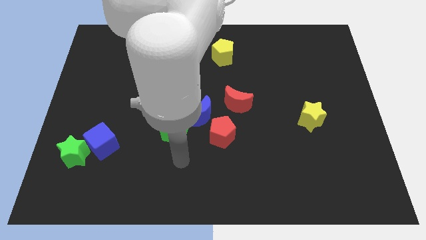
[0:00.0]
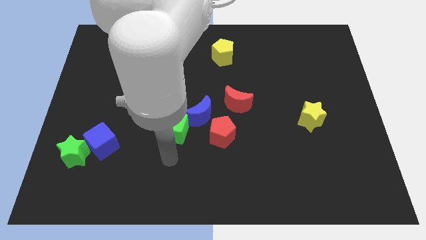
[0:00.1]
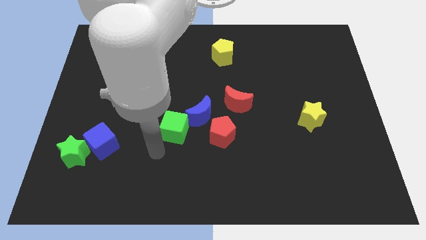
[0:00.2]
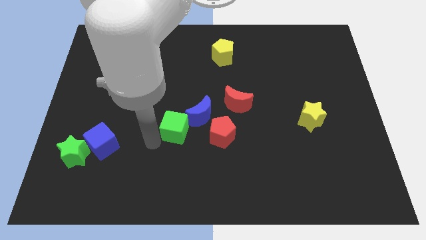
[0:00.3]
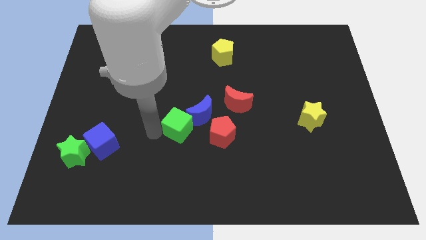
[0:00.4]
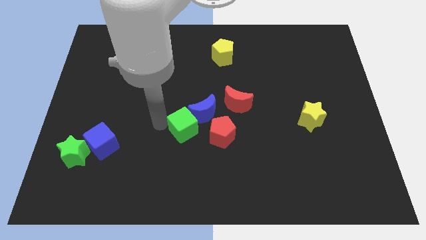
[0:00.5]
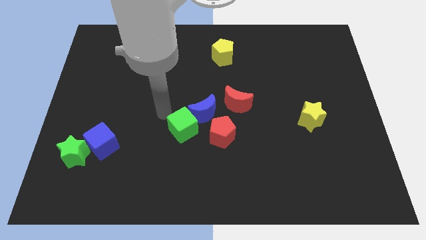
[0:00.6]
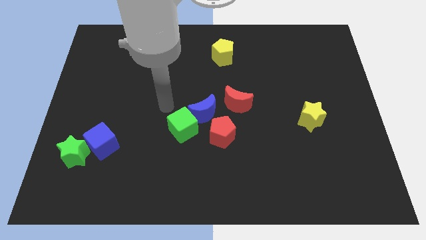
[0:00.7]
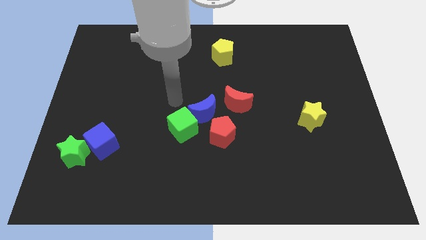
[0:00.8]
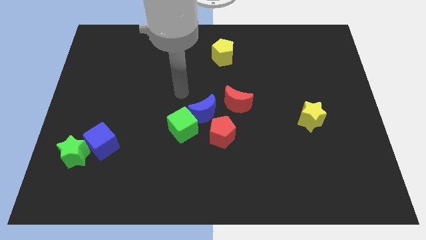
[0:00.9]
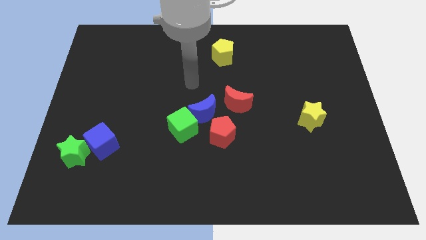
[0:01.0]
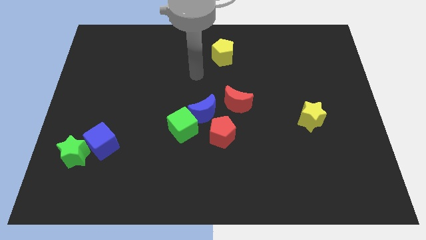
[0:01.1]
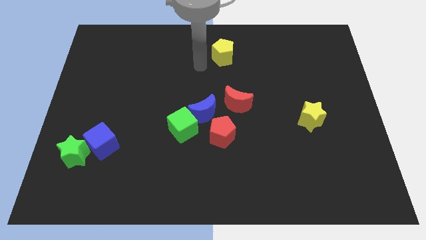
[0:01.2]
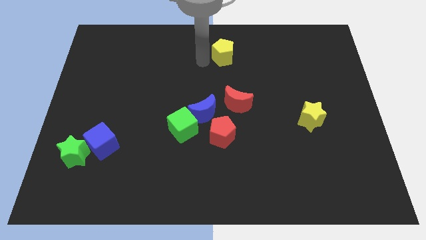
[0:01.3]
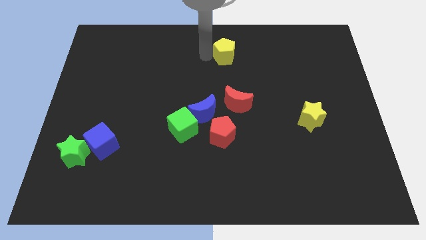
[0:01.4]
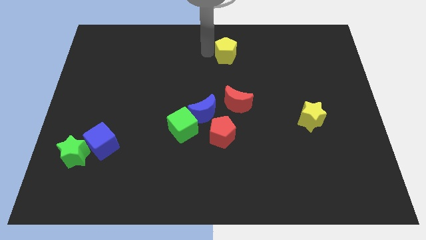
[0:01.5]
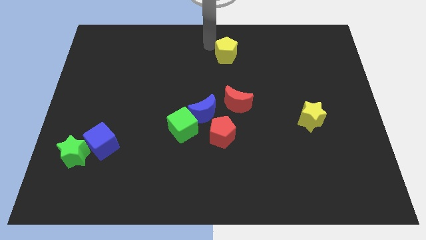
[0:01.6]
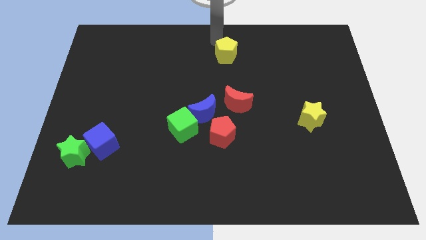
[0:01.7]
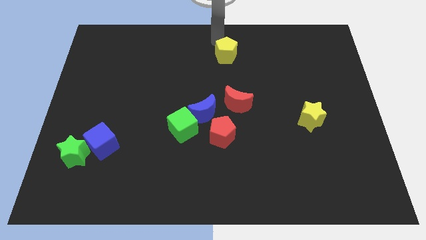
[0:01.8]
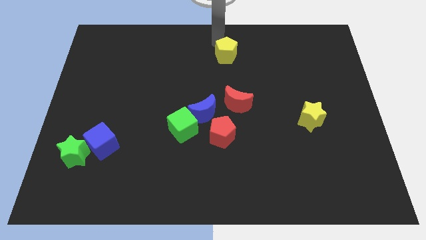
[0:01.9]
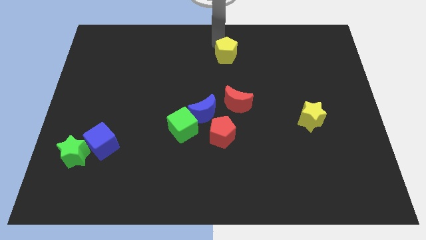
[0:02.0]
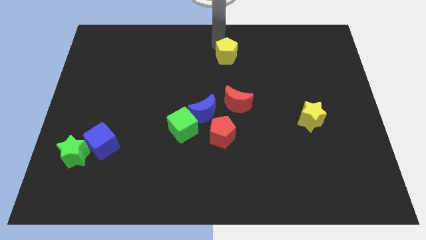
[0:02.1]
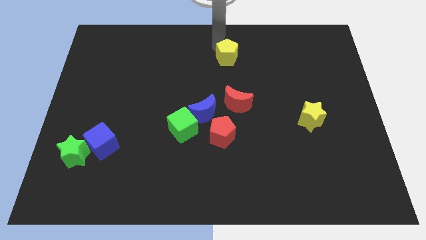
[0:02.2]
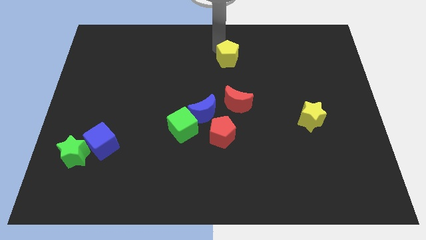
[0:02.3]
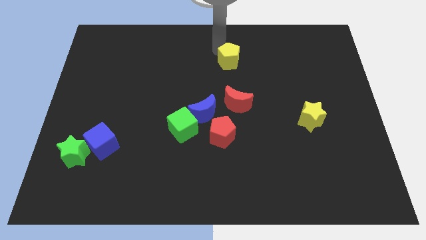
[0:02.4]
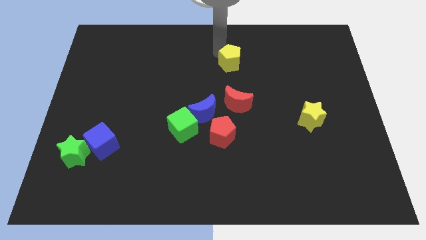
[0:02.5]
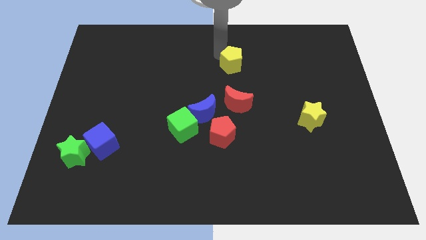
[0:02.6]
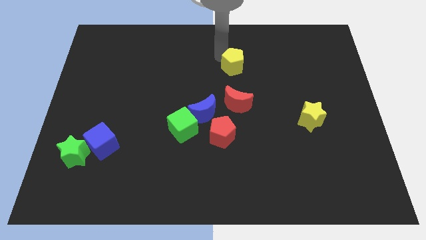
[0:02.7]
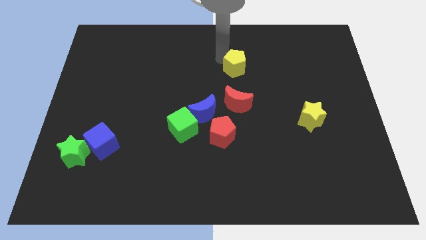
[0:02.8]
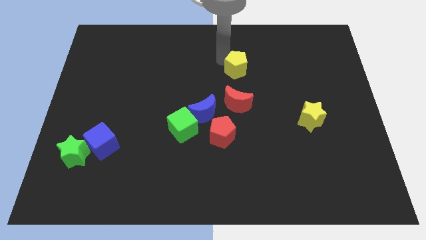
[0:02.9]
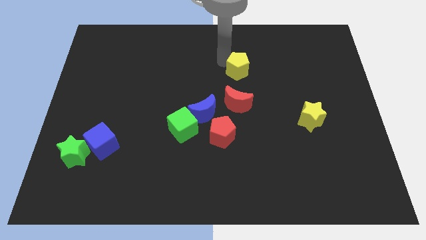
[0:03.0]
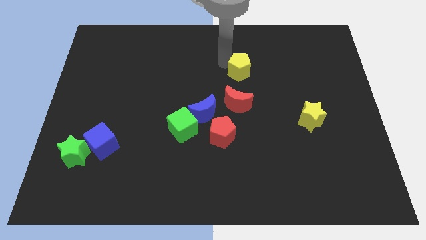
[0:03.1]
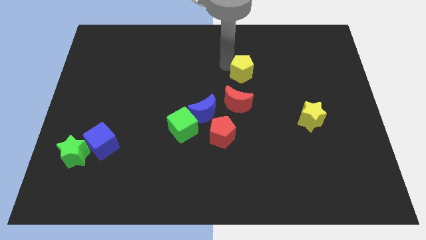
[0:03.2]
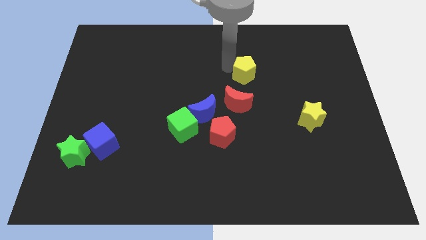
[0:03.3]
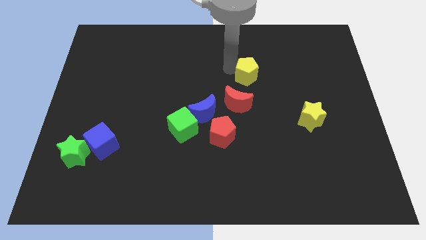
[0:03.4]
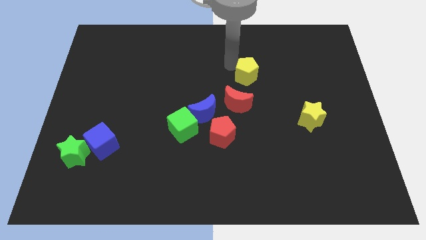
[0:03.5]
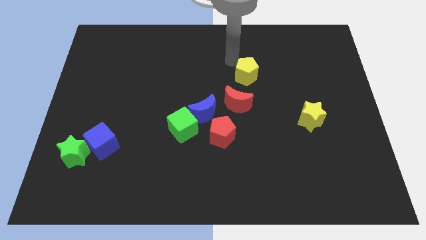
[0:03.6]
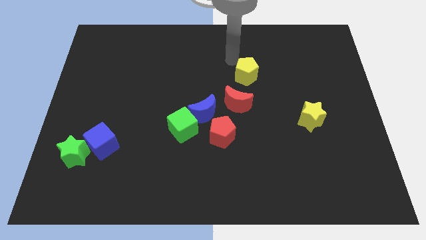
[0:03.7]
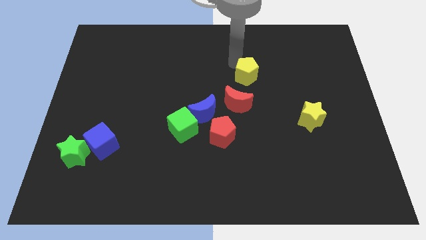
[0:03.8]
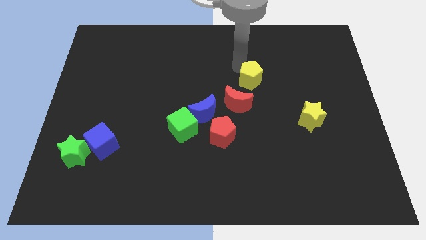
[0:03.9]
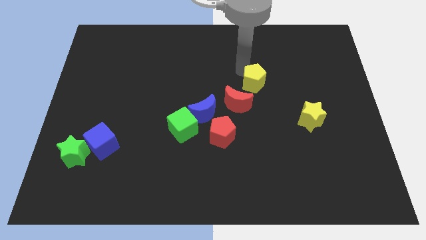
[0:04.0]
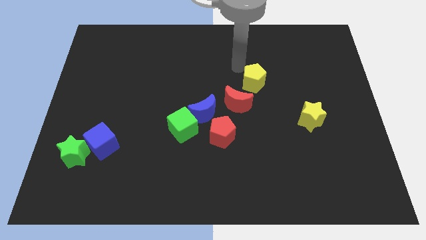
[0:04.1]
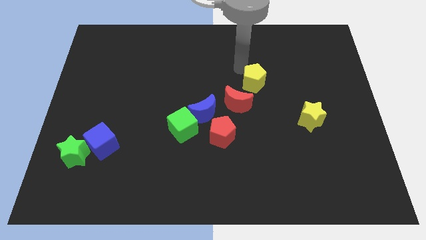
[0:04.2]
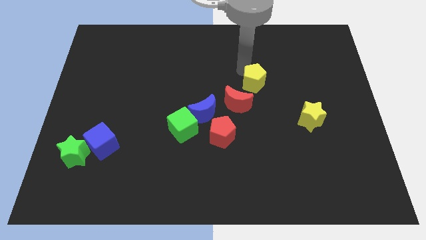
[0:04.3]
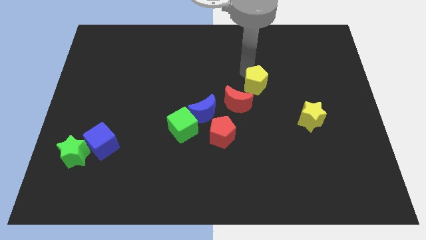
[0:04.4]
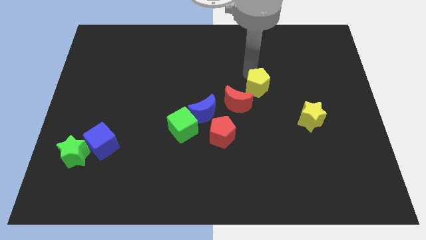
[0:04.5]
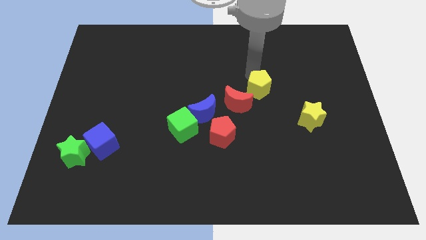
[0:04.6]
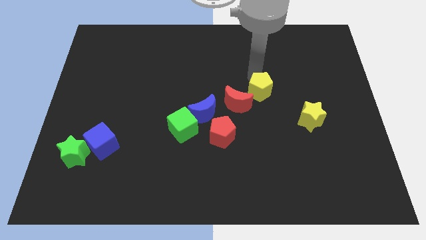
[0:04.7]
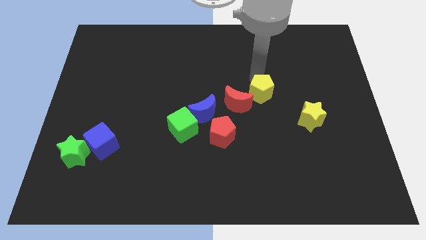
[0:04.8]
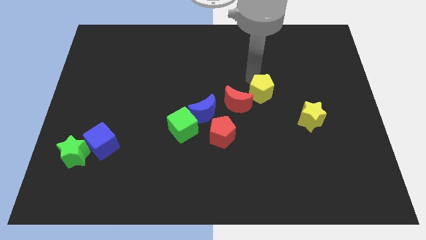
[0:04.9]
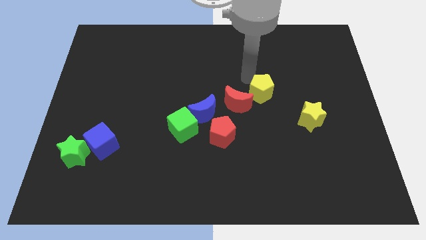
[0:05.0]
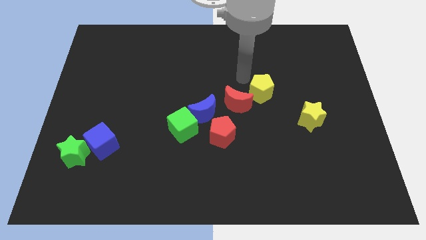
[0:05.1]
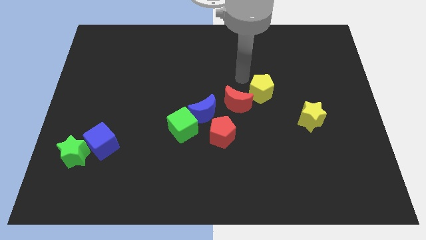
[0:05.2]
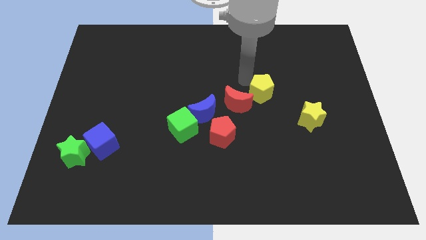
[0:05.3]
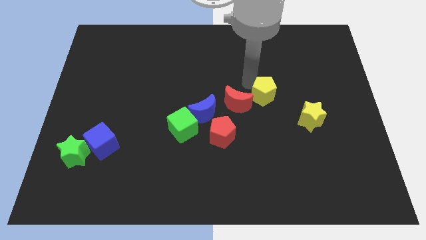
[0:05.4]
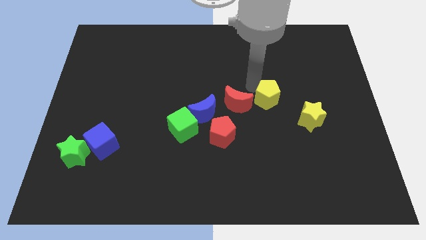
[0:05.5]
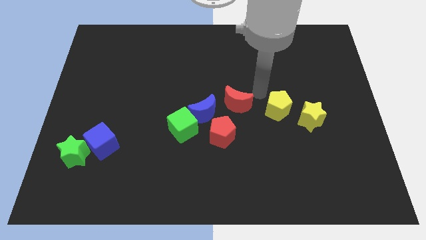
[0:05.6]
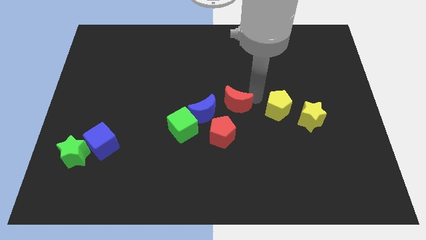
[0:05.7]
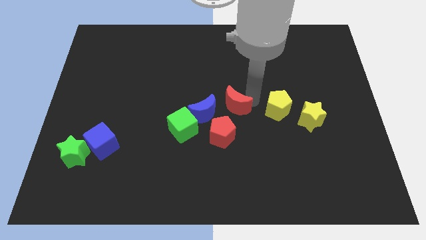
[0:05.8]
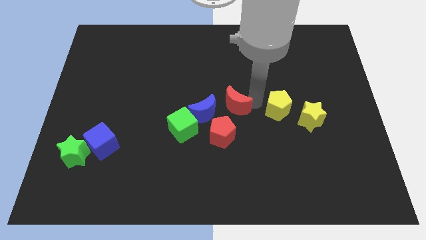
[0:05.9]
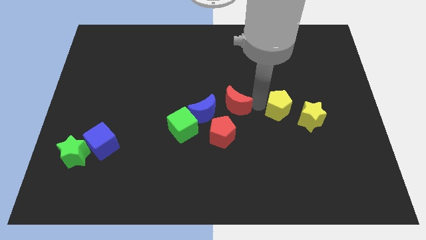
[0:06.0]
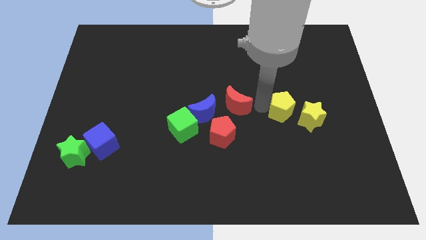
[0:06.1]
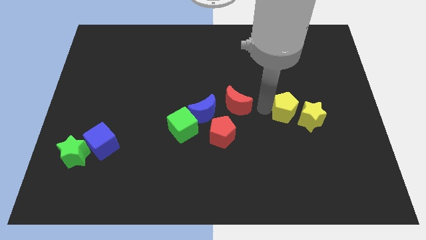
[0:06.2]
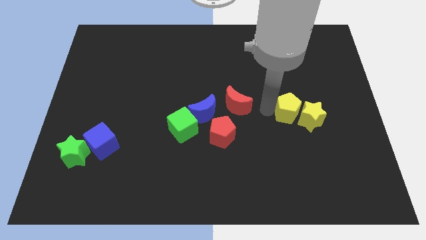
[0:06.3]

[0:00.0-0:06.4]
push the yellow pentagon to the yellow star

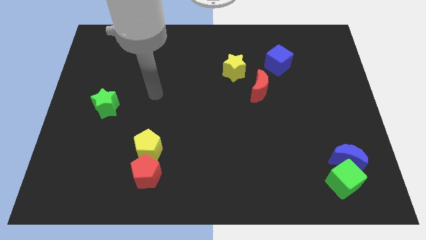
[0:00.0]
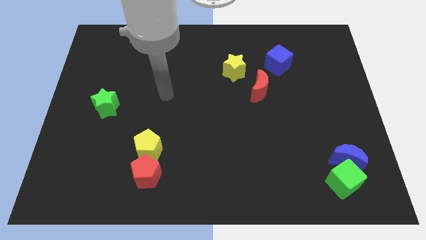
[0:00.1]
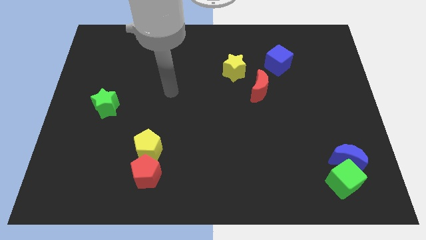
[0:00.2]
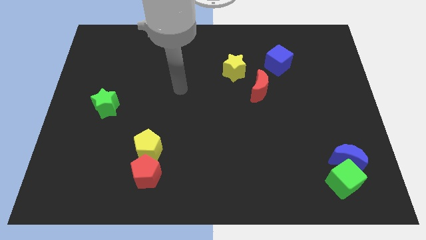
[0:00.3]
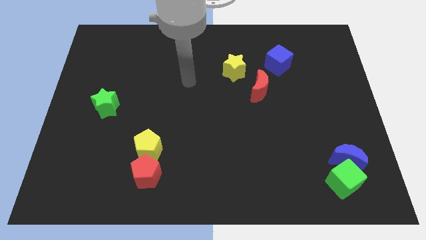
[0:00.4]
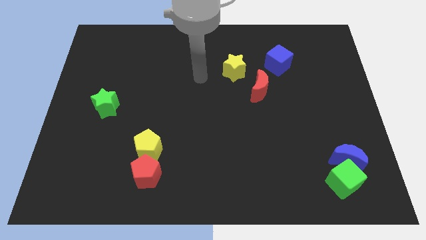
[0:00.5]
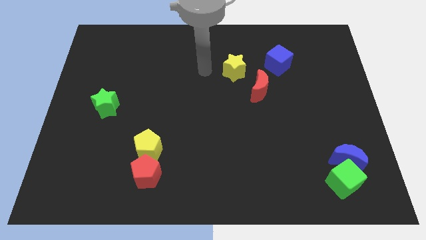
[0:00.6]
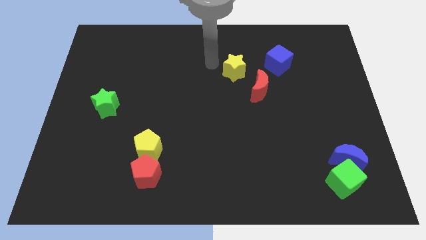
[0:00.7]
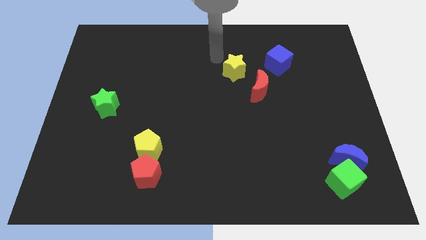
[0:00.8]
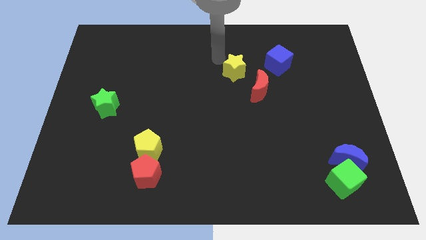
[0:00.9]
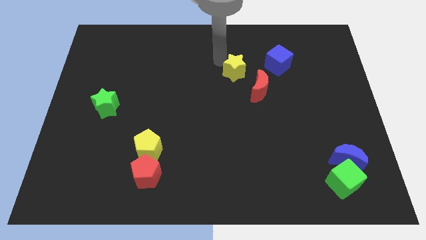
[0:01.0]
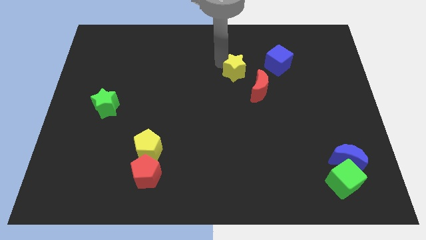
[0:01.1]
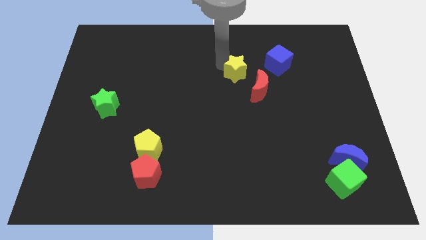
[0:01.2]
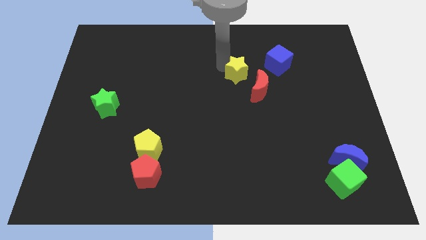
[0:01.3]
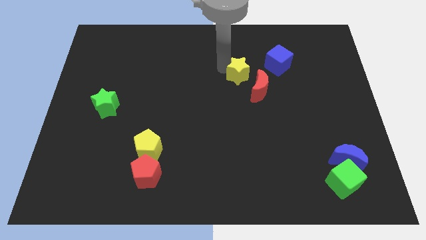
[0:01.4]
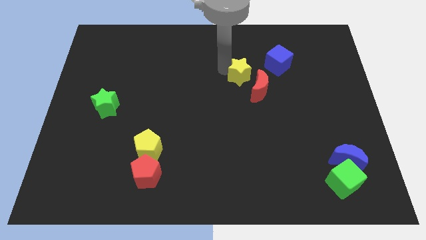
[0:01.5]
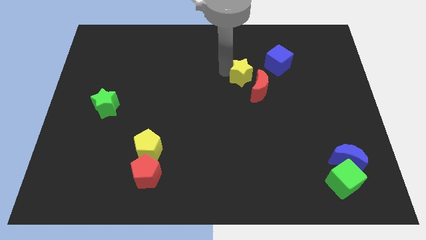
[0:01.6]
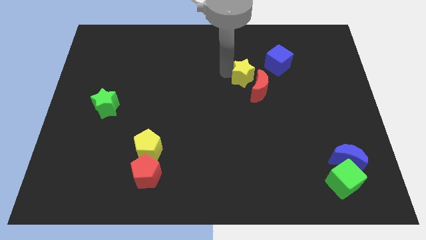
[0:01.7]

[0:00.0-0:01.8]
move the yellow star next to the red moon
